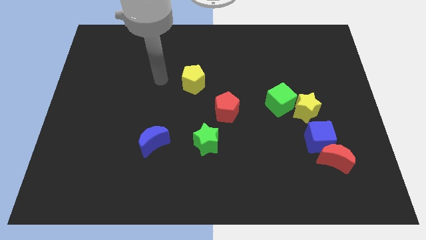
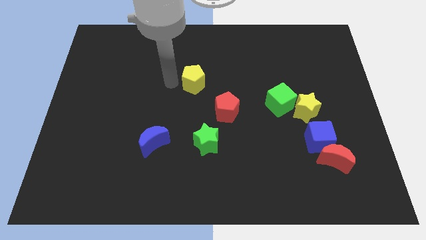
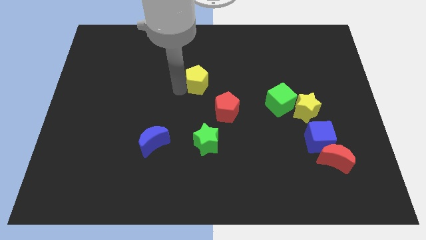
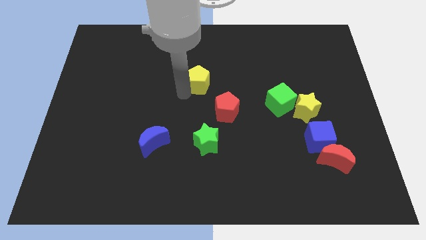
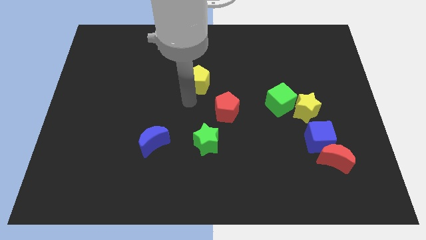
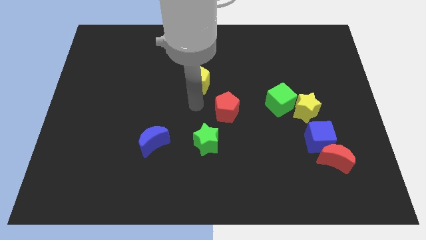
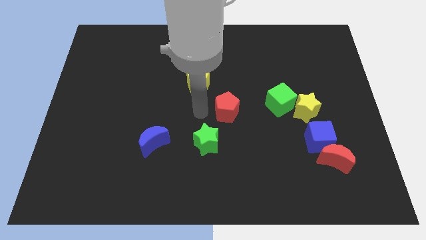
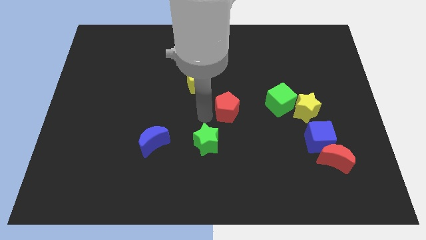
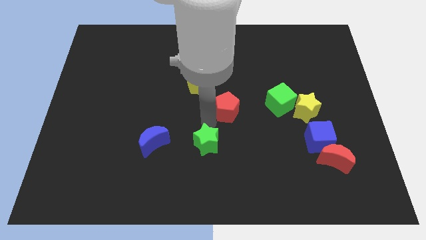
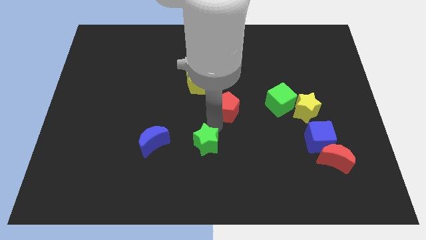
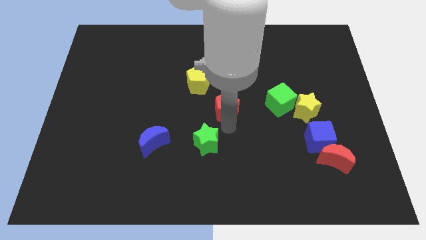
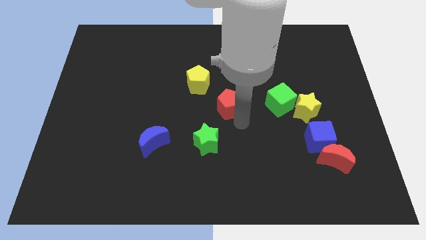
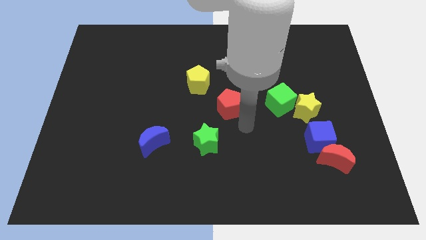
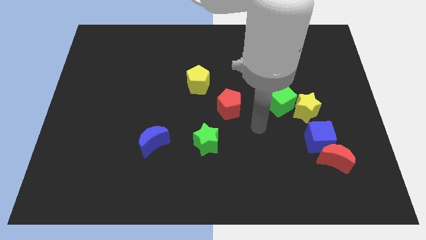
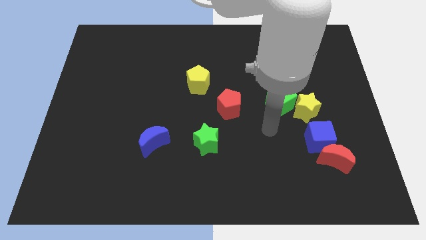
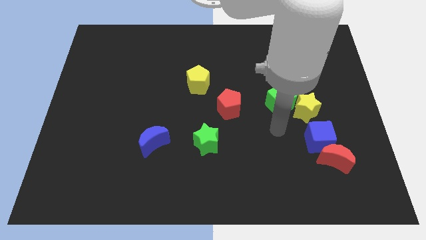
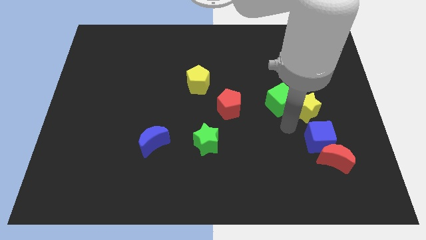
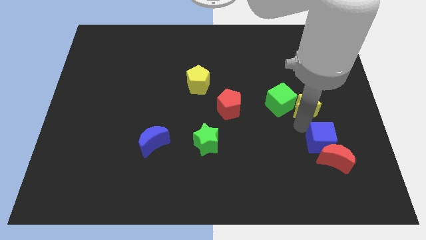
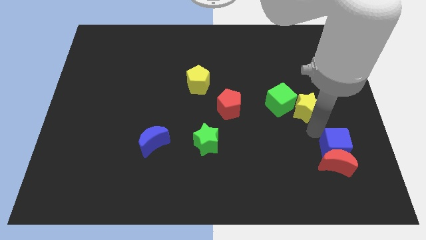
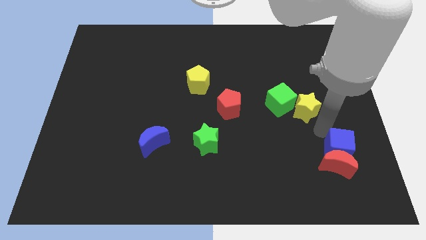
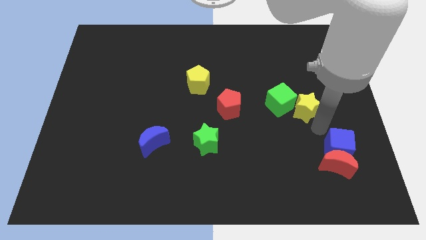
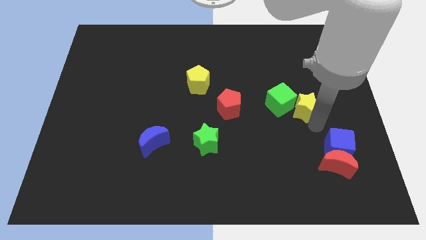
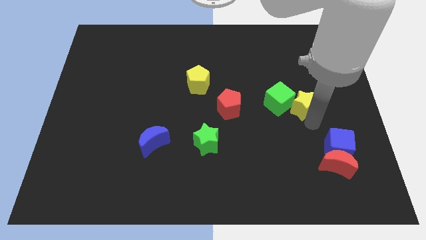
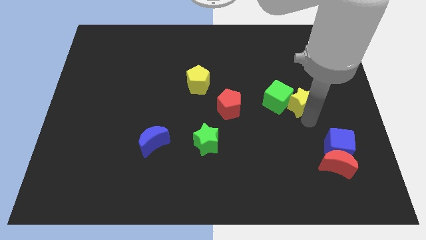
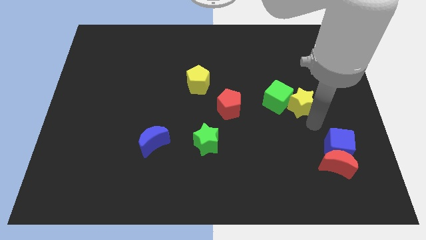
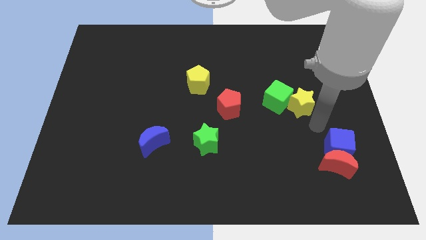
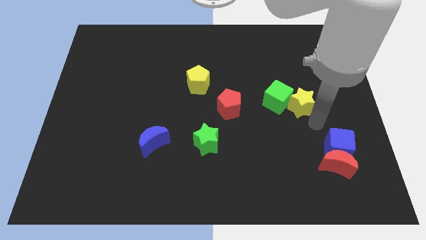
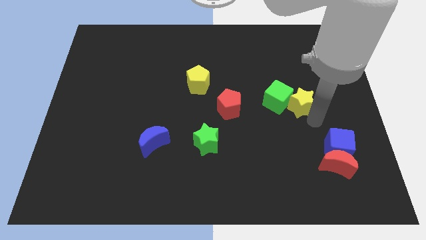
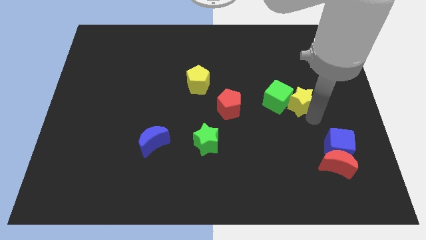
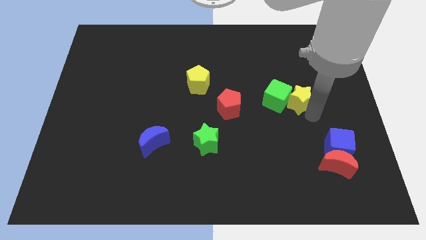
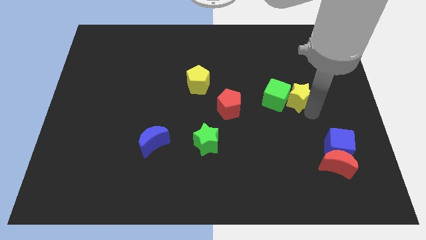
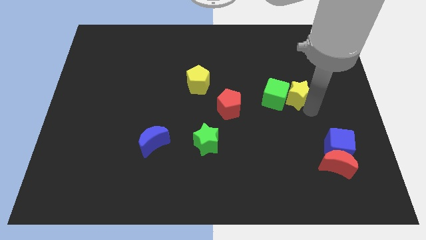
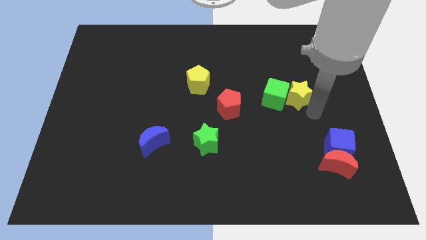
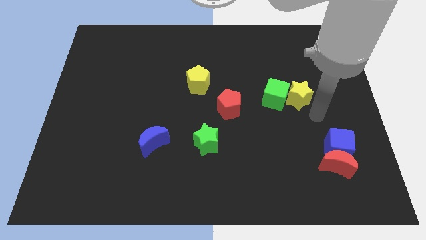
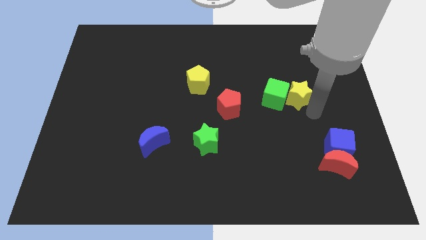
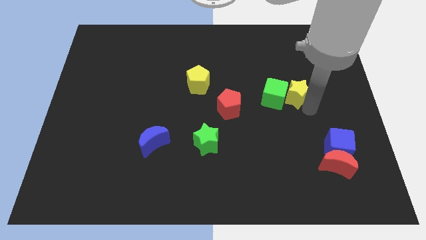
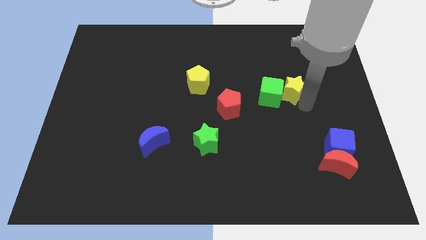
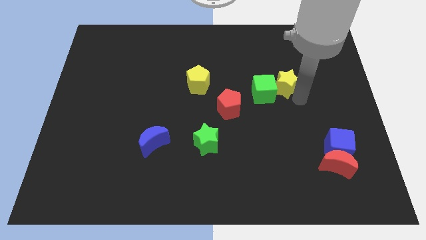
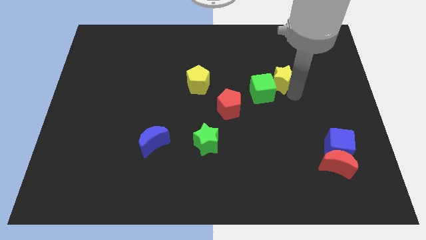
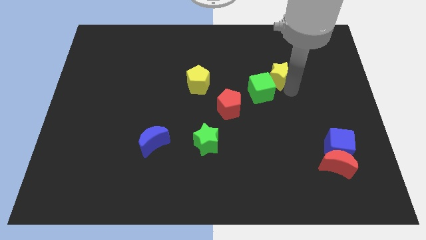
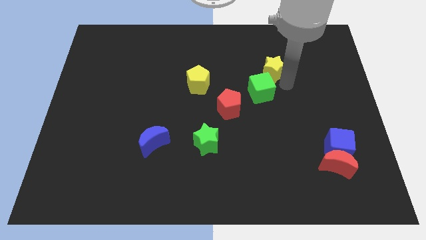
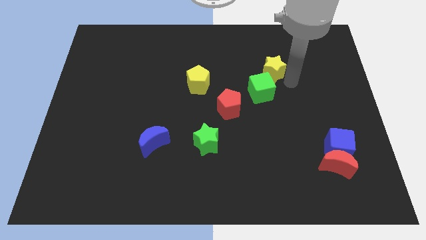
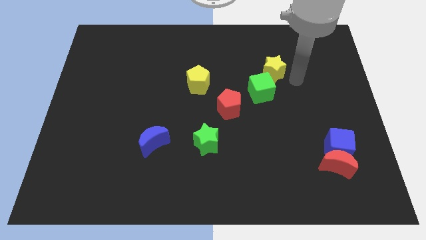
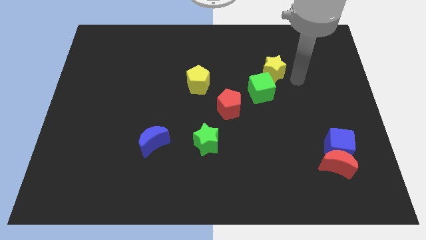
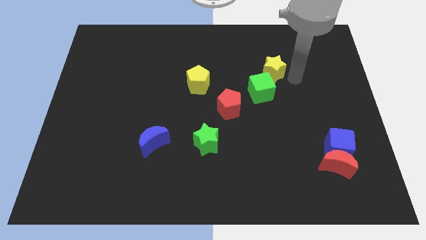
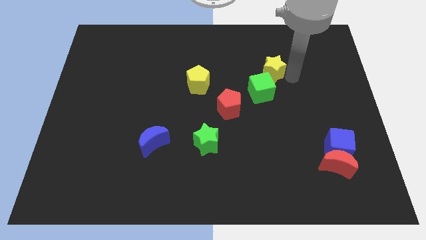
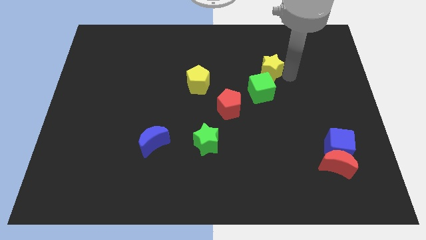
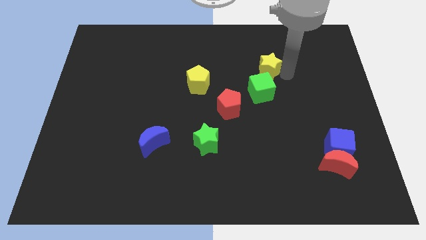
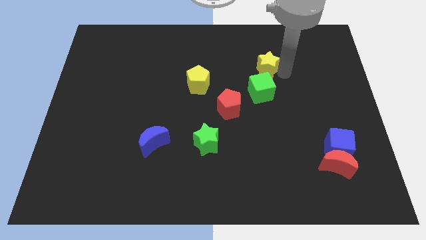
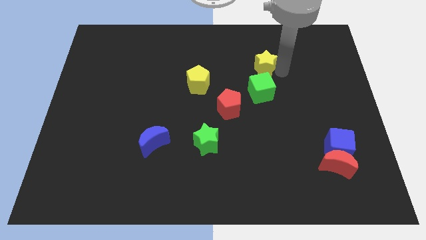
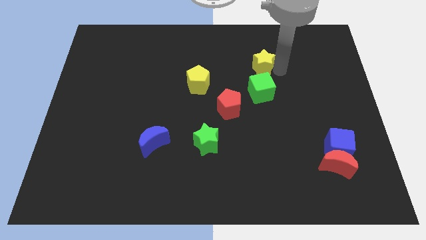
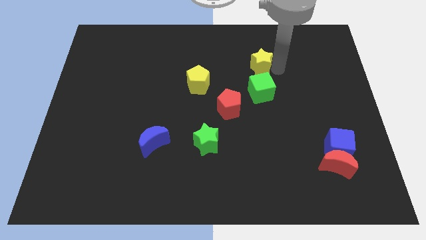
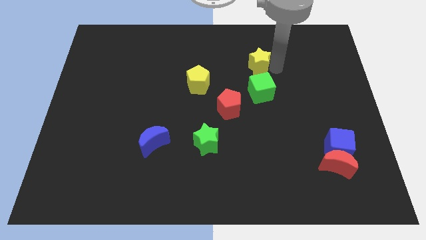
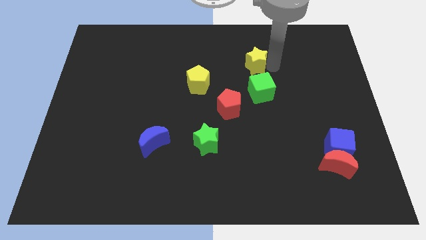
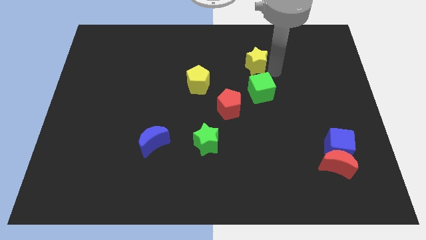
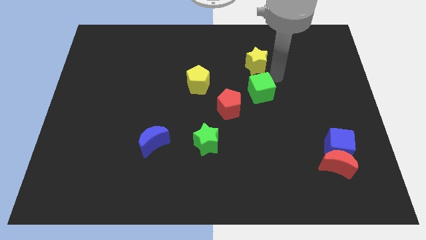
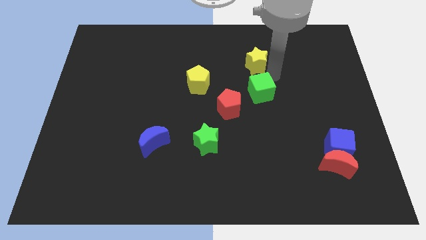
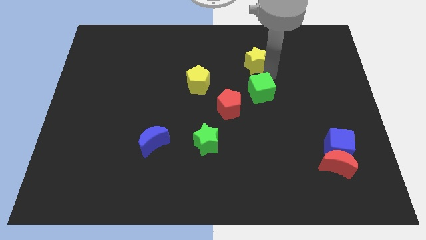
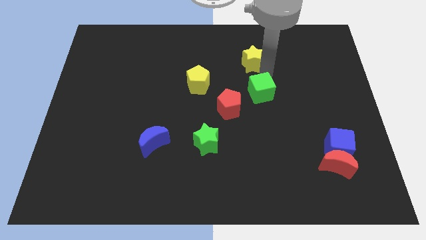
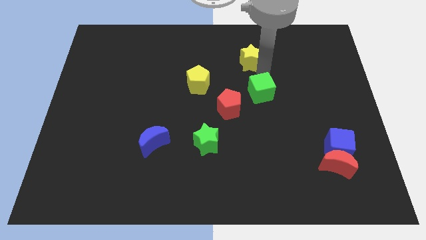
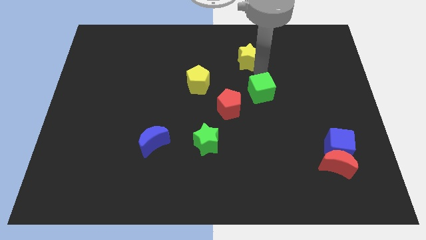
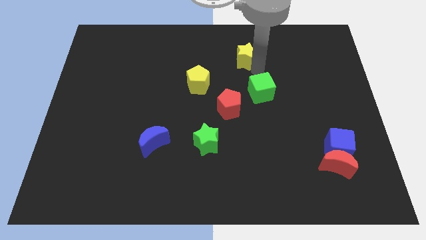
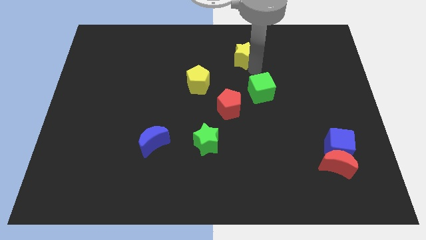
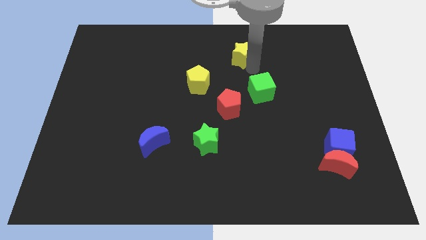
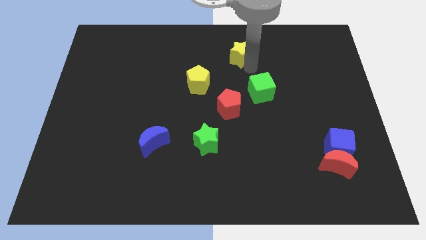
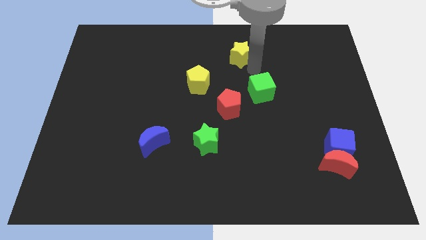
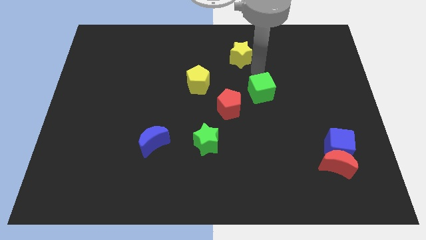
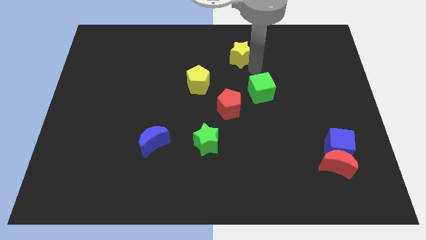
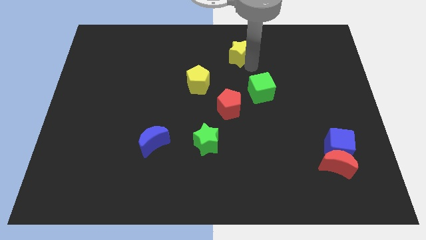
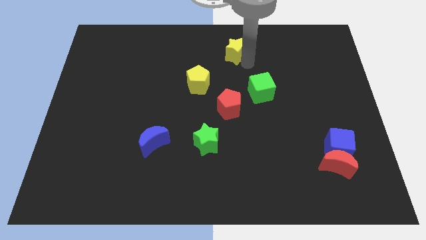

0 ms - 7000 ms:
slide the yellow star to the towards your base
